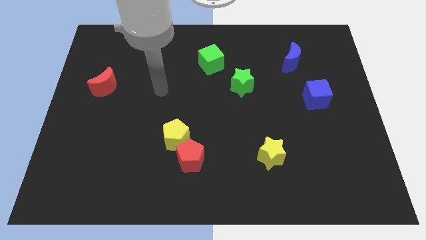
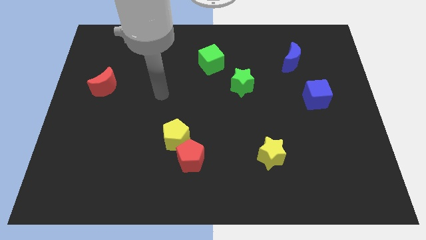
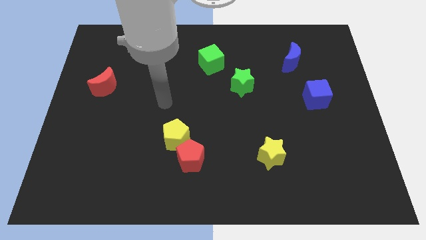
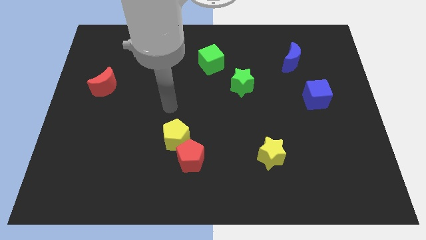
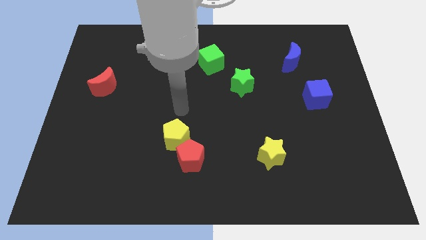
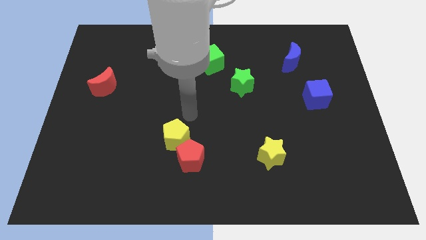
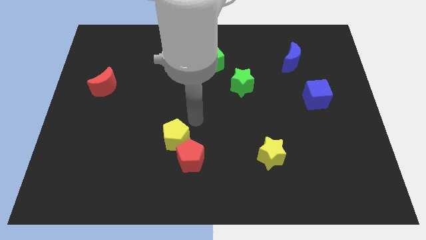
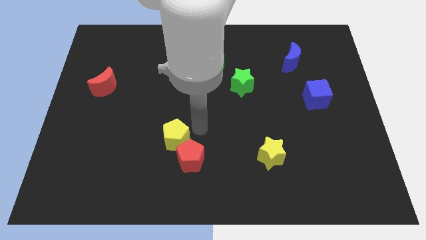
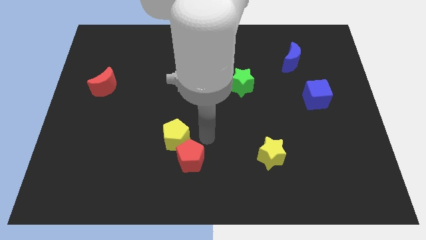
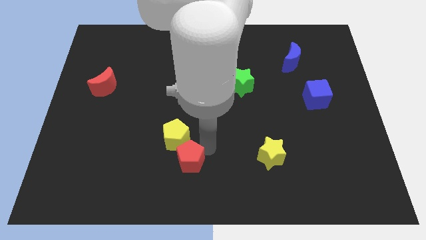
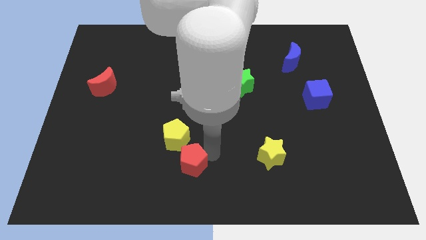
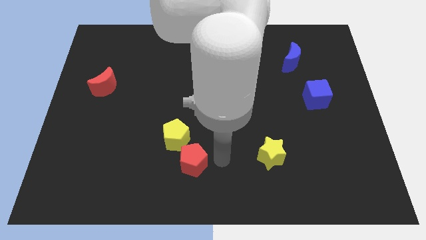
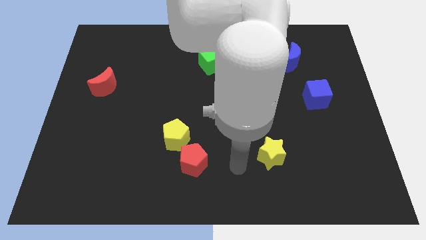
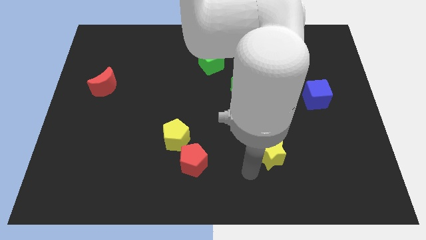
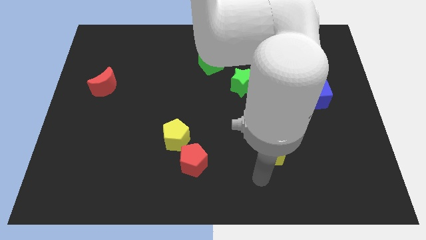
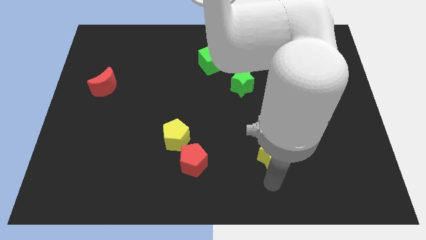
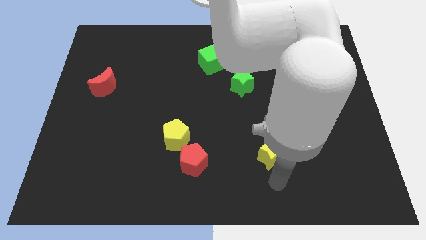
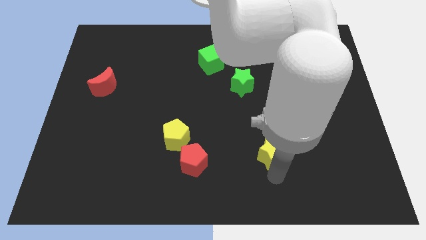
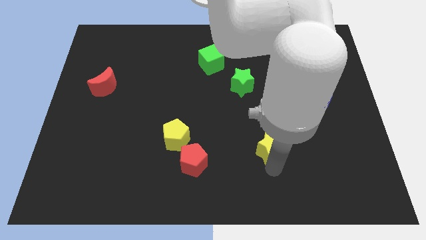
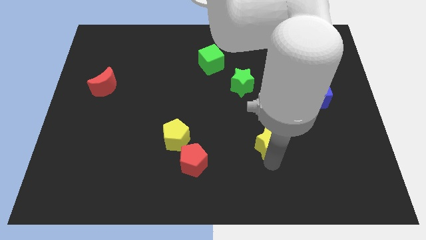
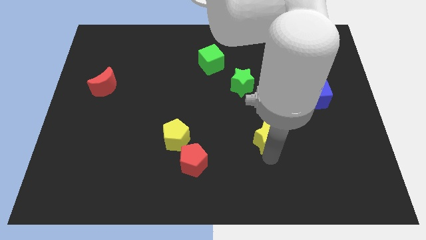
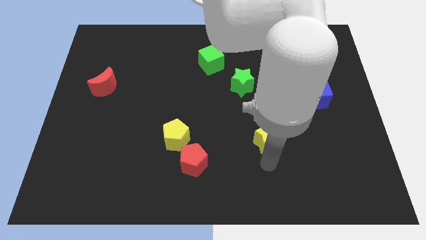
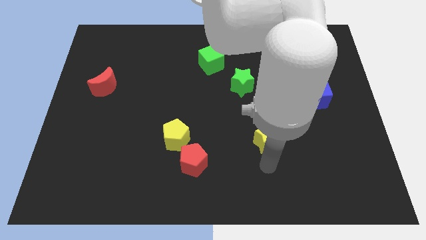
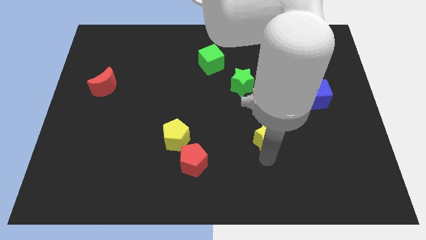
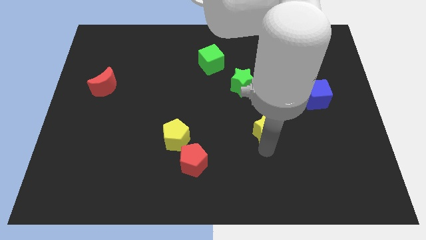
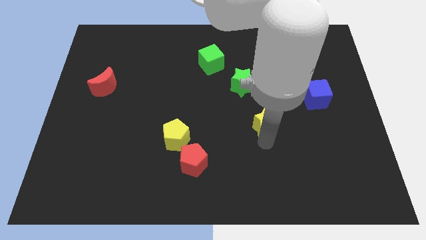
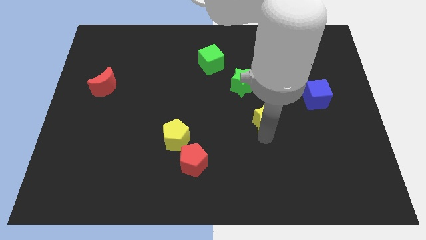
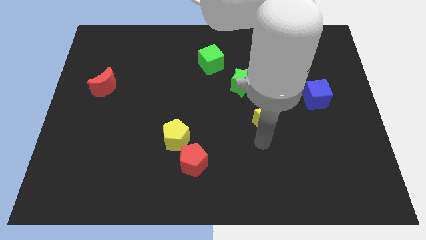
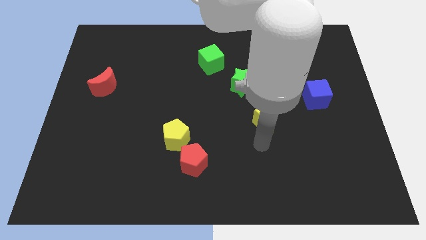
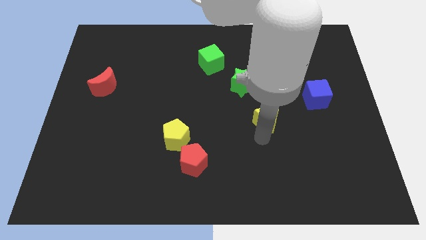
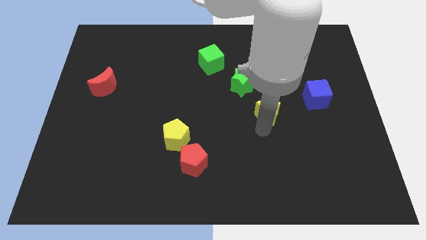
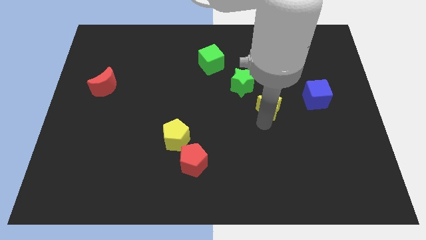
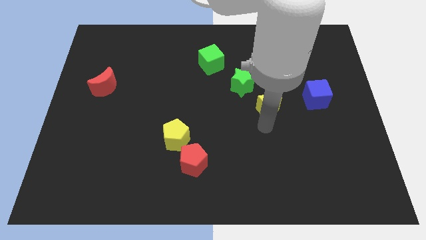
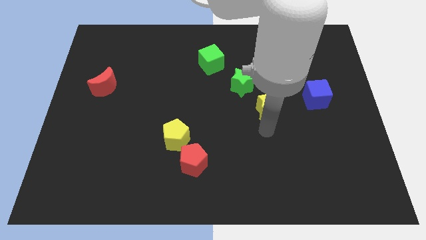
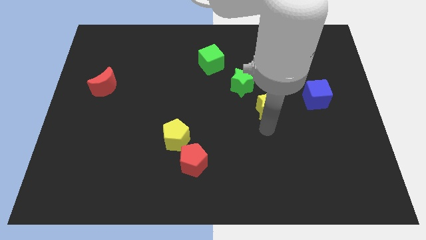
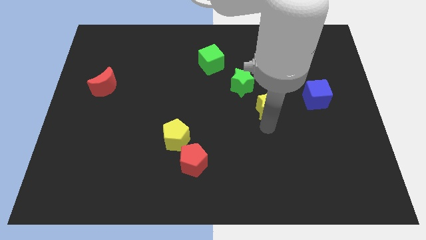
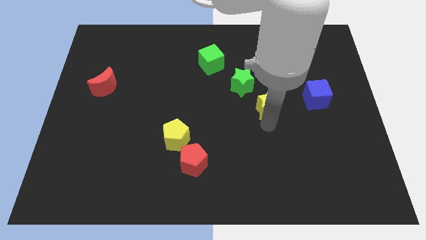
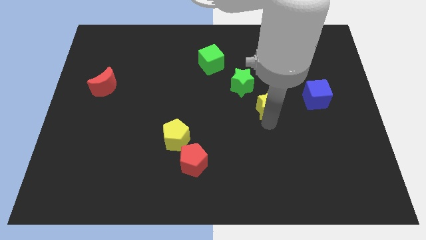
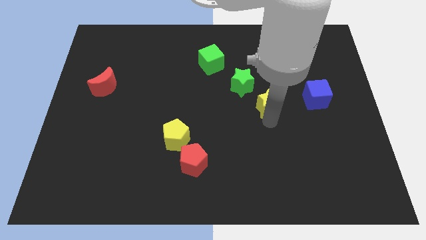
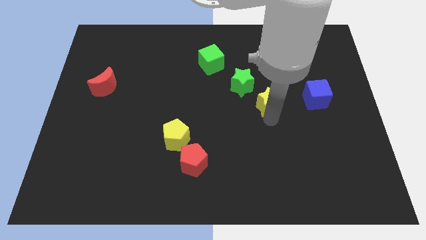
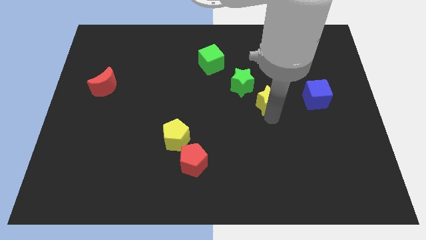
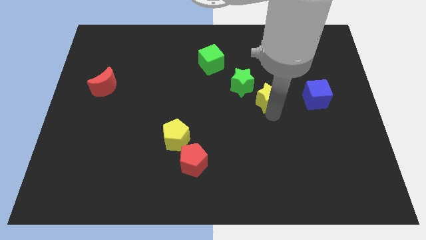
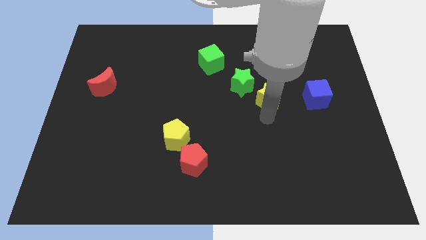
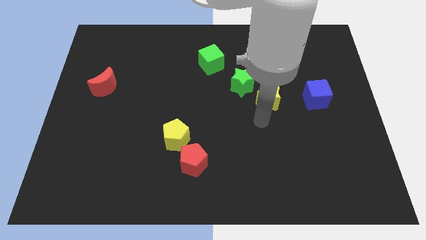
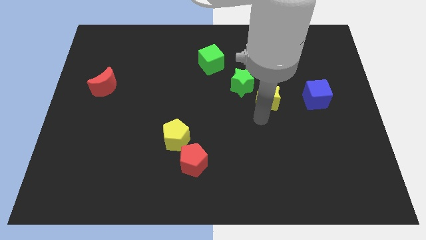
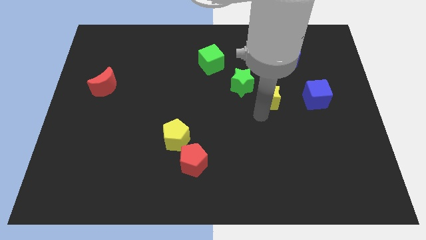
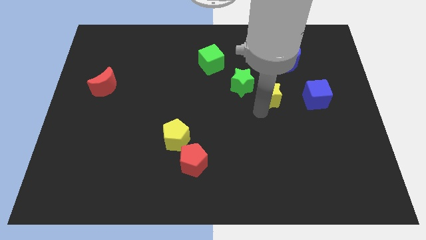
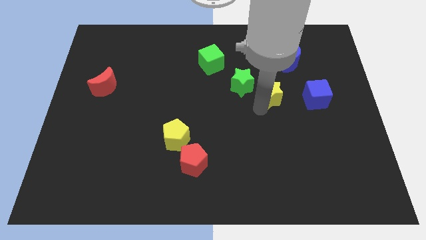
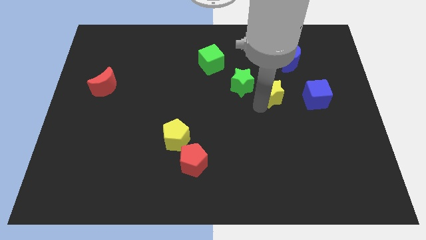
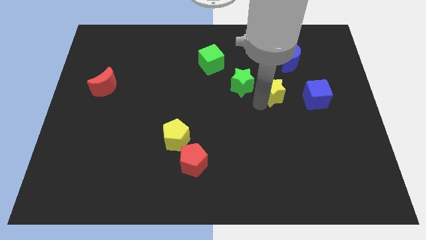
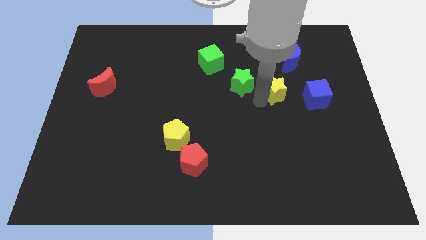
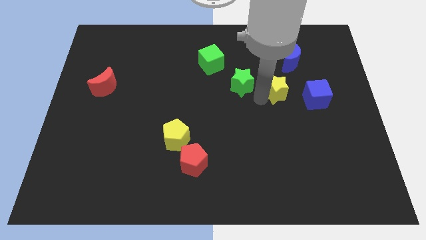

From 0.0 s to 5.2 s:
push the yellow star diagonally down and to the left of the blue moon

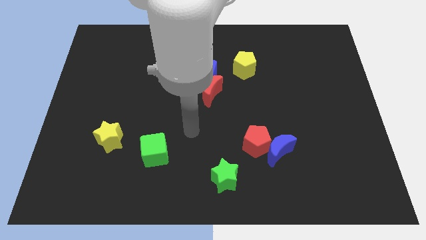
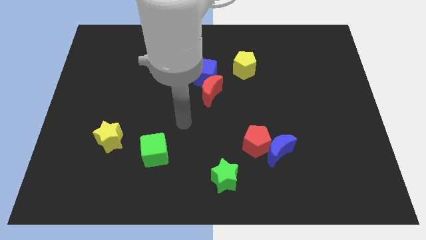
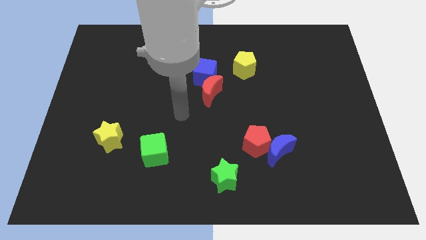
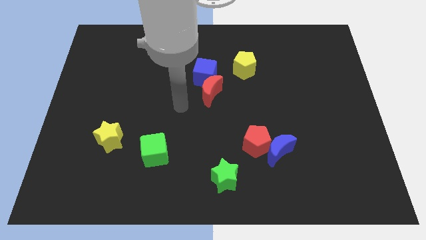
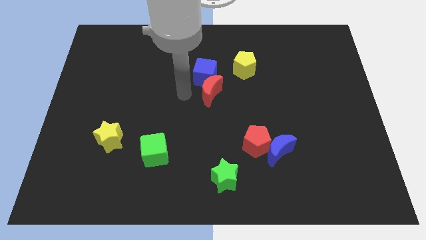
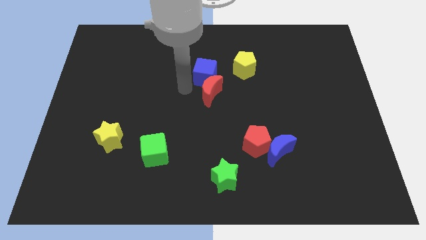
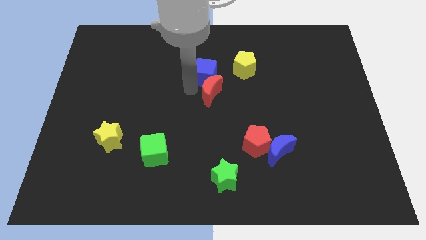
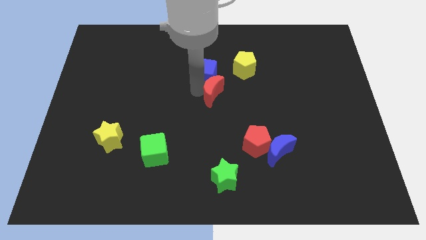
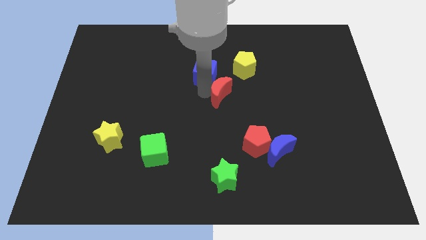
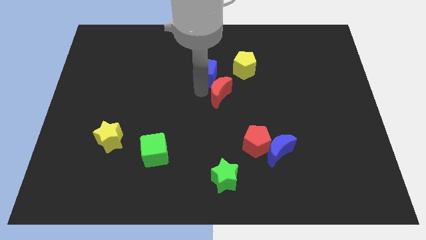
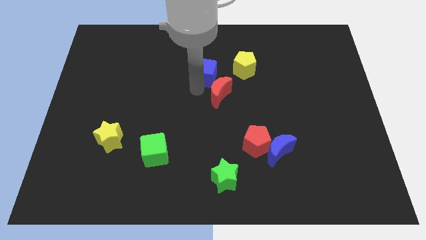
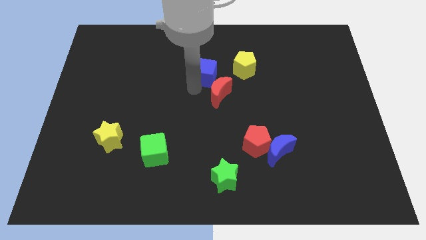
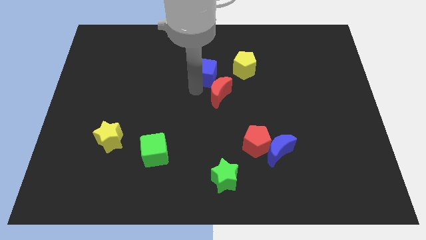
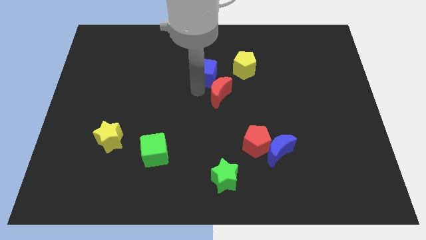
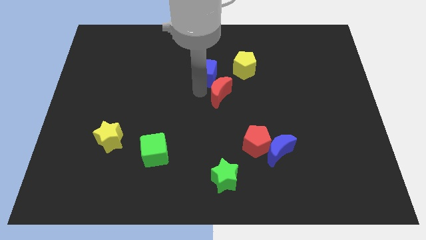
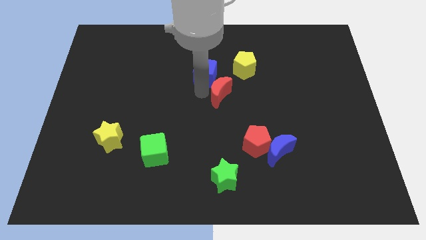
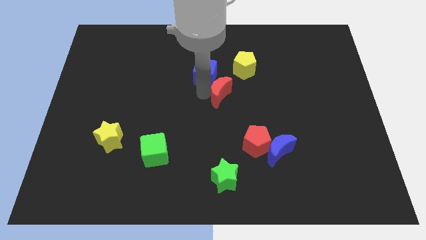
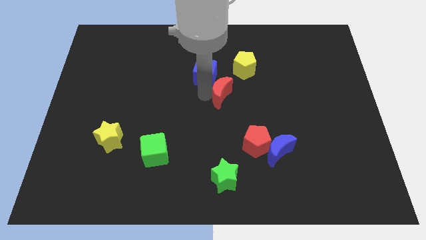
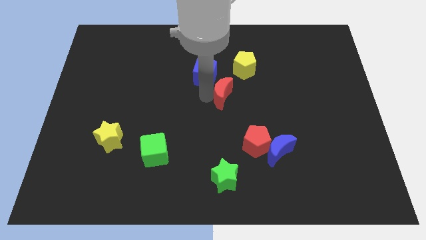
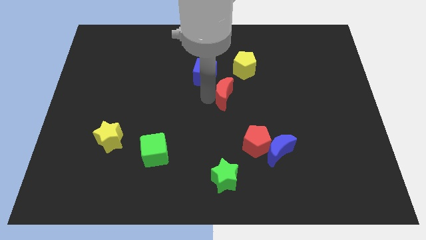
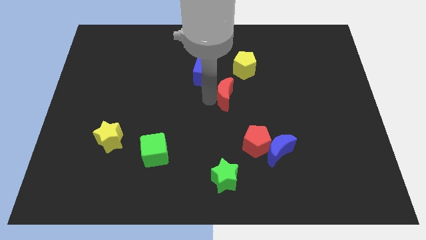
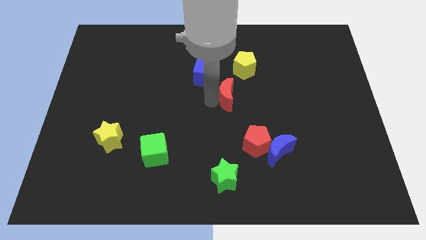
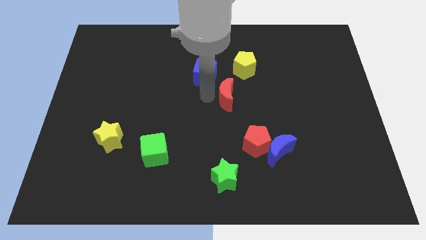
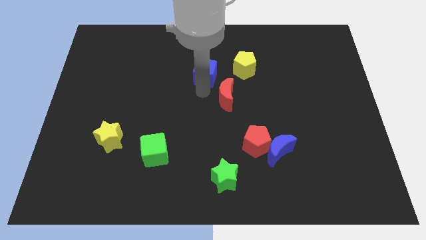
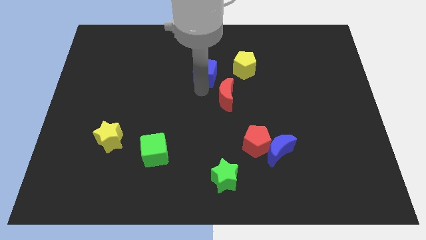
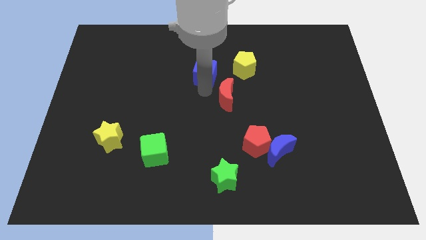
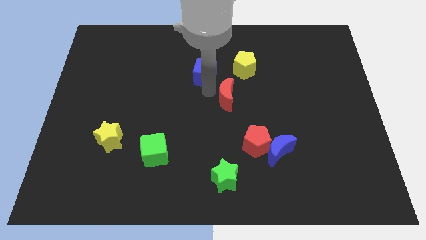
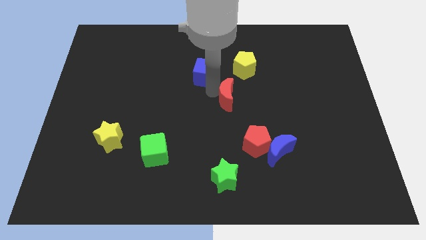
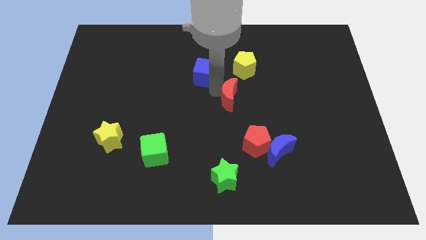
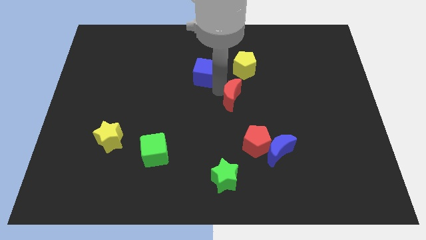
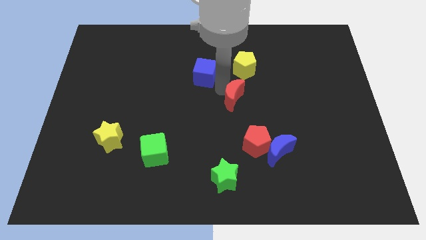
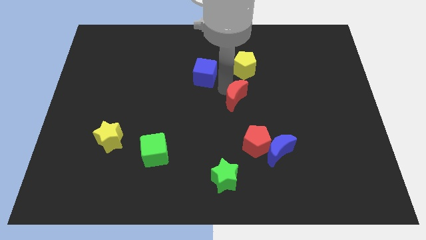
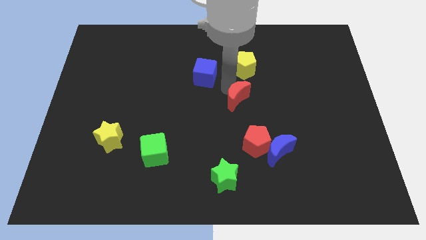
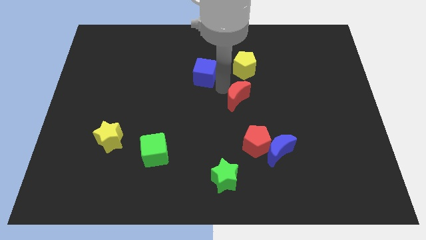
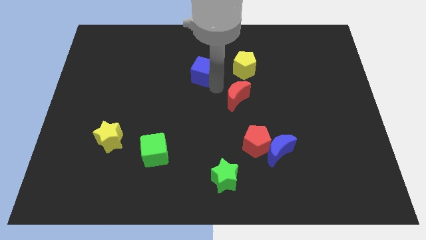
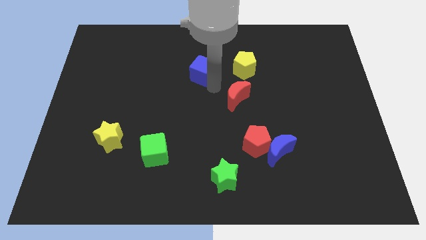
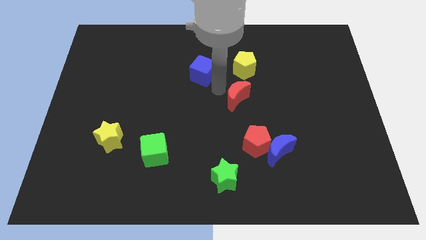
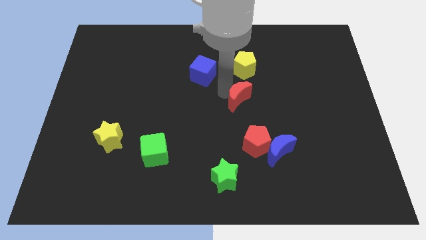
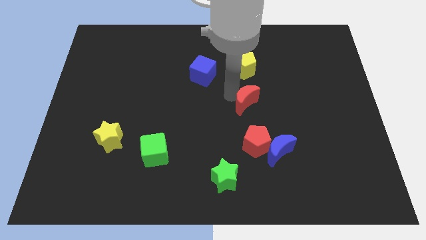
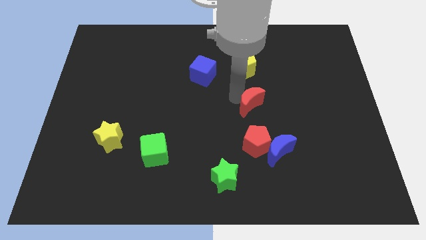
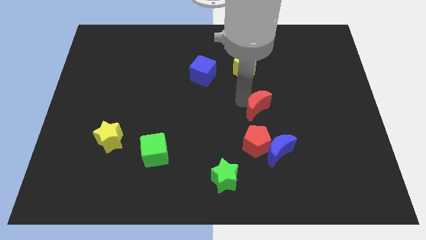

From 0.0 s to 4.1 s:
push the red moon to the top side of the blue moon
